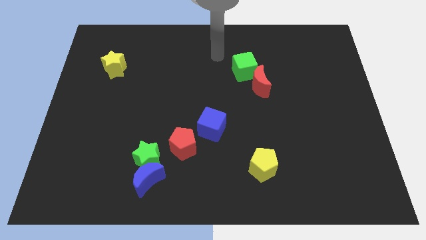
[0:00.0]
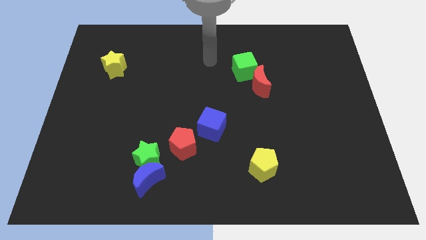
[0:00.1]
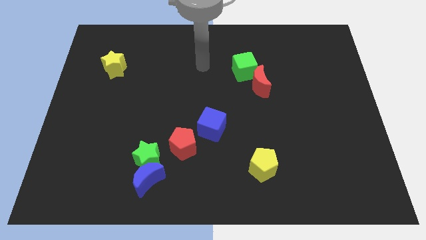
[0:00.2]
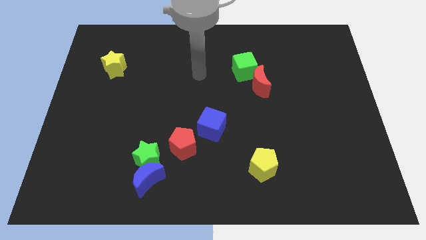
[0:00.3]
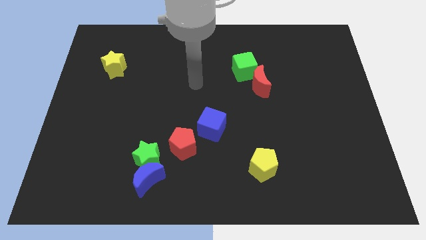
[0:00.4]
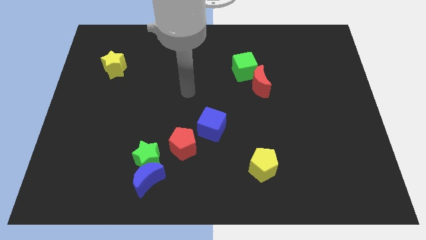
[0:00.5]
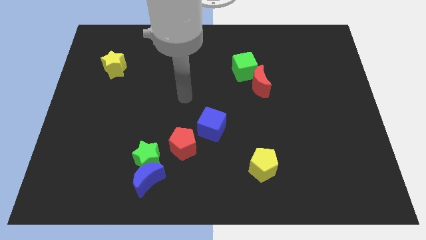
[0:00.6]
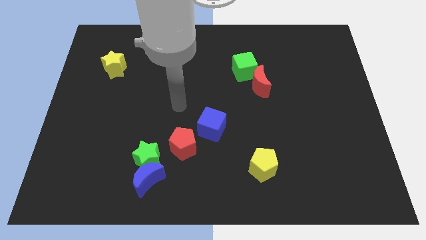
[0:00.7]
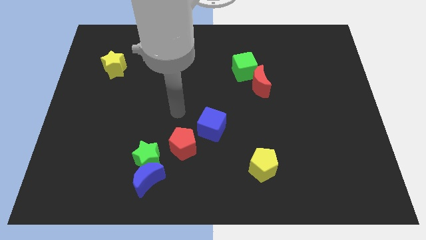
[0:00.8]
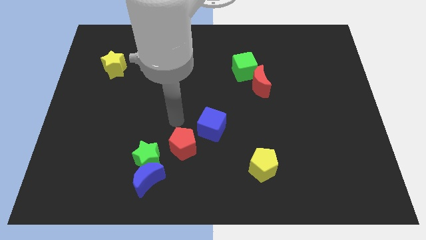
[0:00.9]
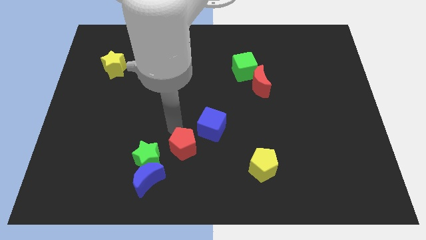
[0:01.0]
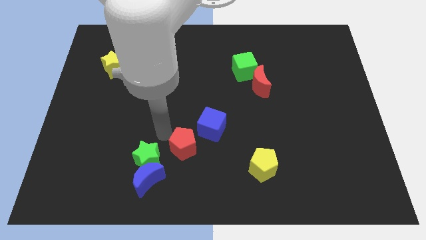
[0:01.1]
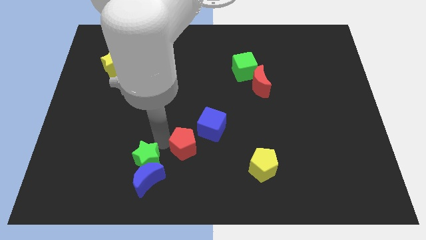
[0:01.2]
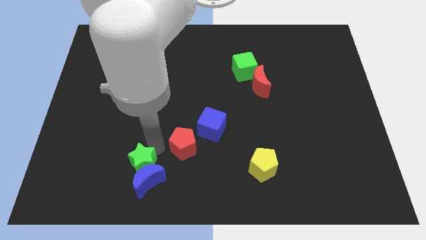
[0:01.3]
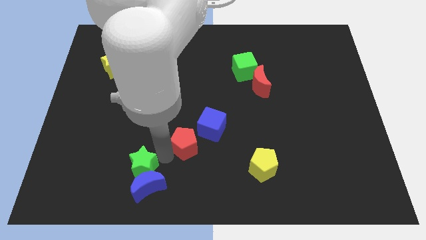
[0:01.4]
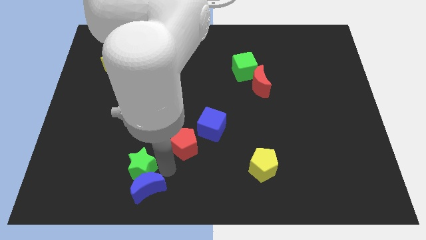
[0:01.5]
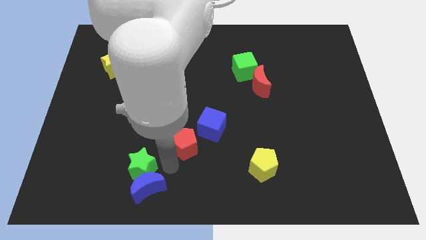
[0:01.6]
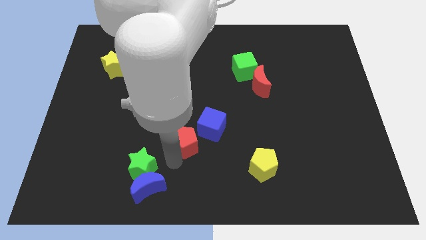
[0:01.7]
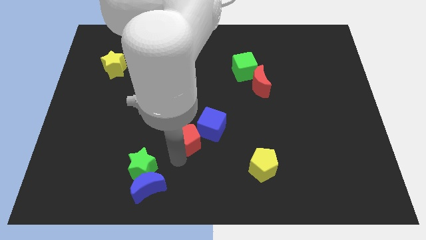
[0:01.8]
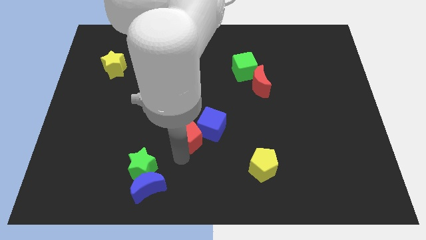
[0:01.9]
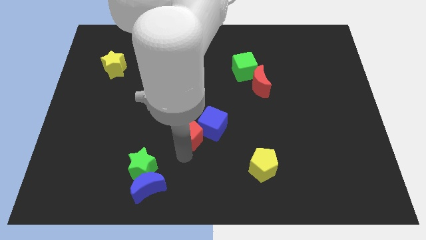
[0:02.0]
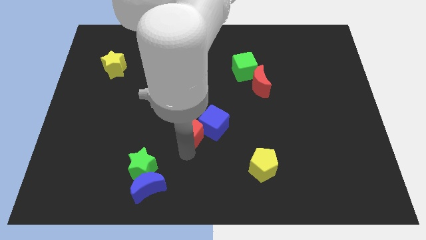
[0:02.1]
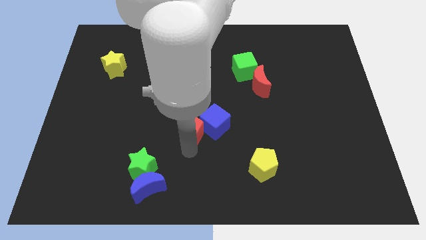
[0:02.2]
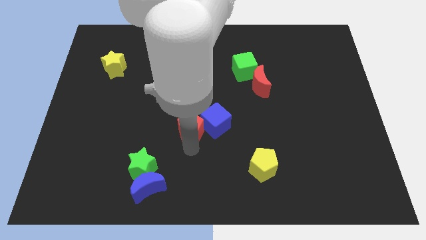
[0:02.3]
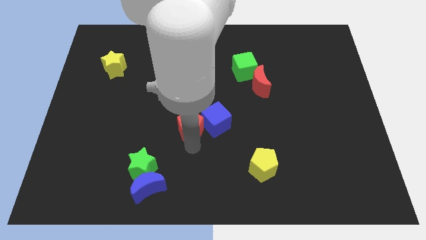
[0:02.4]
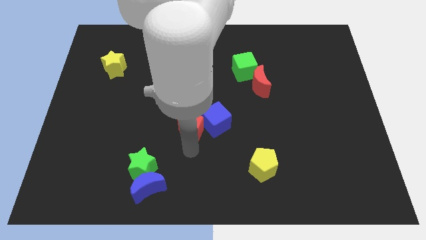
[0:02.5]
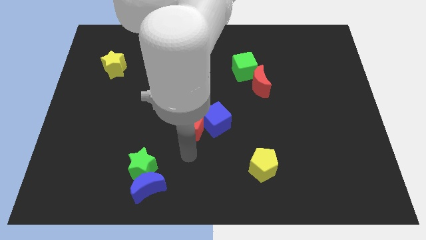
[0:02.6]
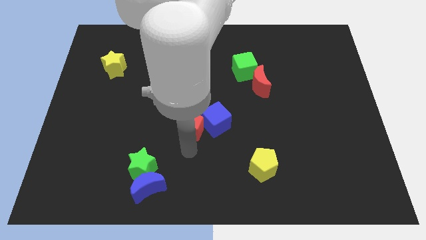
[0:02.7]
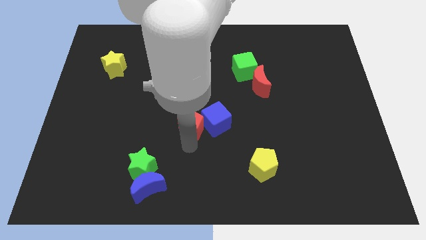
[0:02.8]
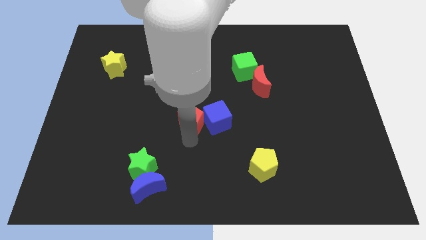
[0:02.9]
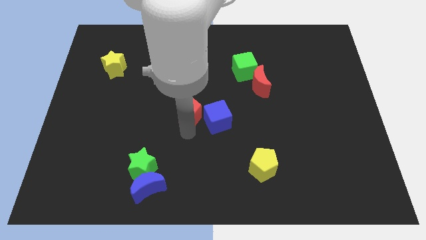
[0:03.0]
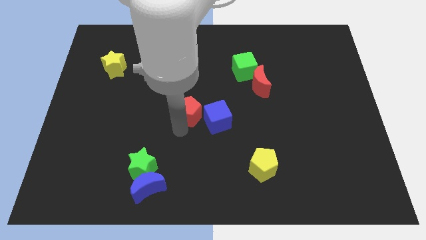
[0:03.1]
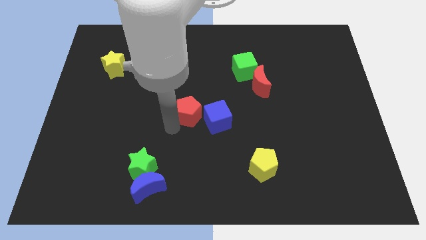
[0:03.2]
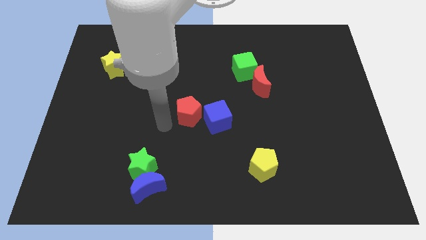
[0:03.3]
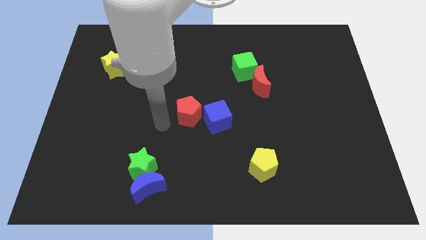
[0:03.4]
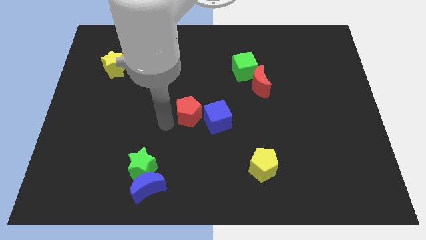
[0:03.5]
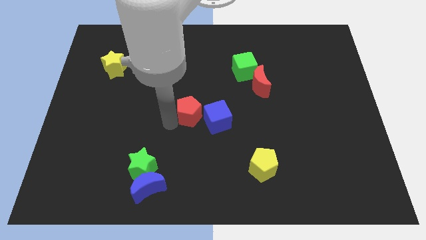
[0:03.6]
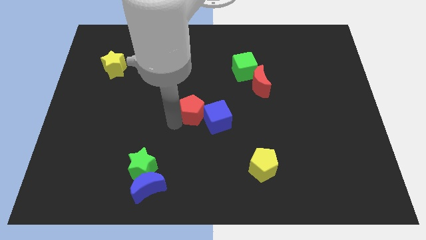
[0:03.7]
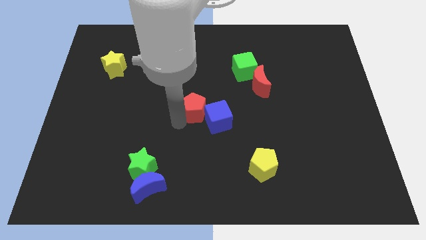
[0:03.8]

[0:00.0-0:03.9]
move the red pentagon somewhat diagonally up and to the right

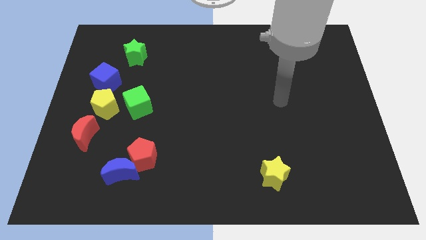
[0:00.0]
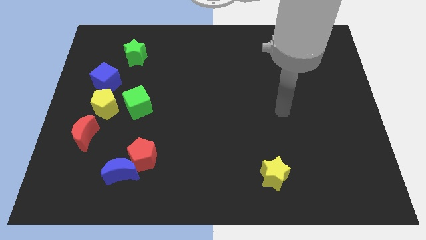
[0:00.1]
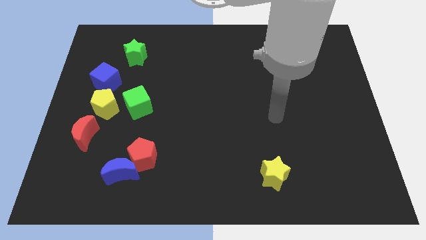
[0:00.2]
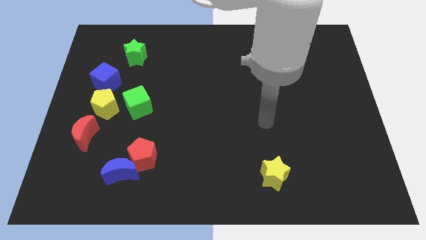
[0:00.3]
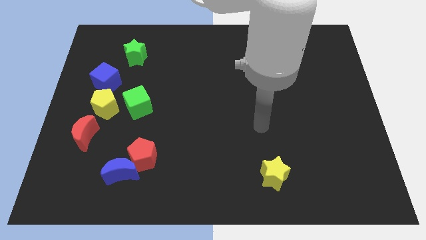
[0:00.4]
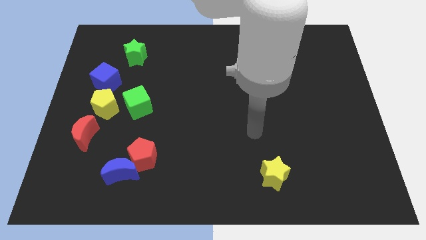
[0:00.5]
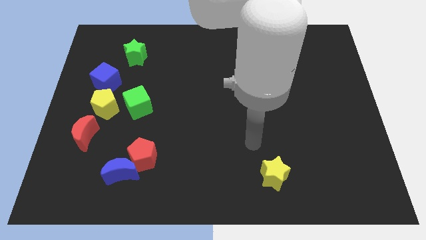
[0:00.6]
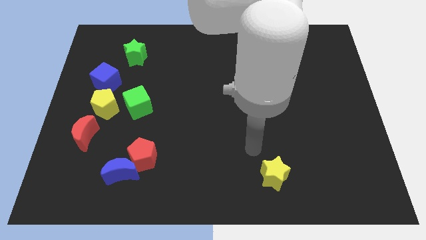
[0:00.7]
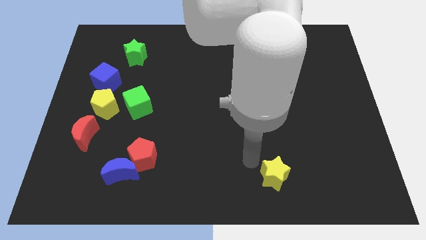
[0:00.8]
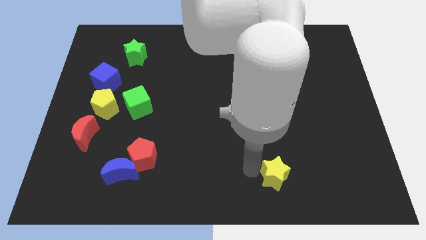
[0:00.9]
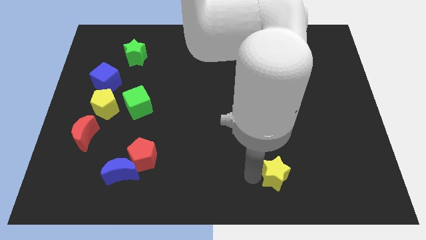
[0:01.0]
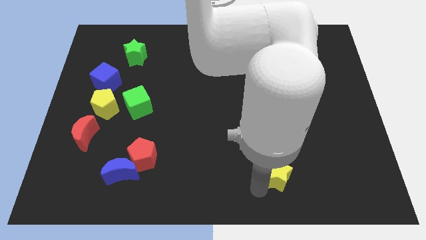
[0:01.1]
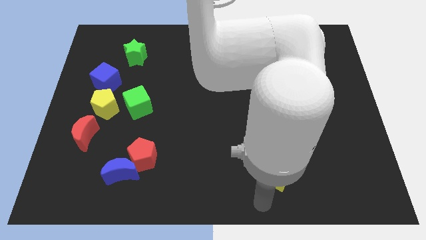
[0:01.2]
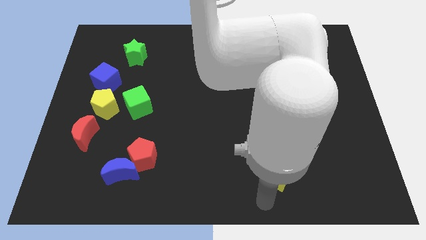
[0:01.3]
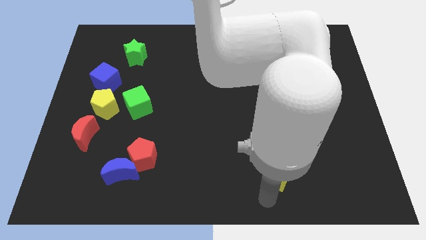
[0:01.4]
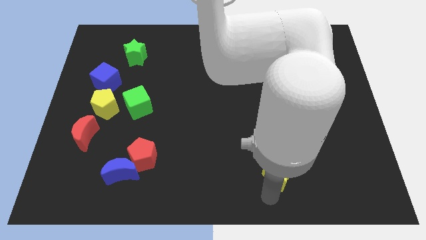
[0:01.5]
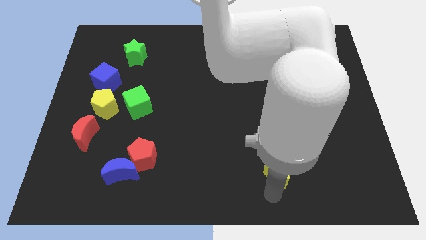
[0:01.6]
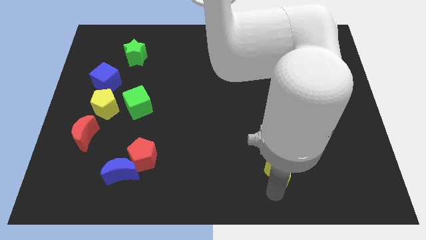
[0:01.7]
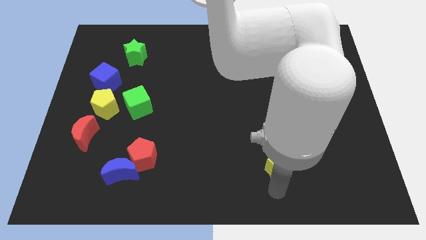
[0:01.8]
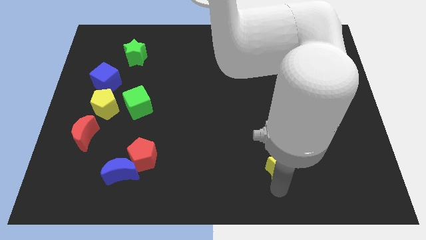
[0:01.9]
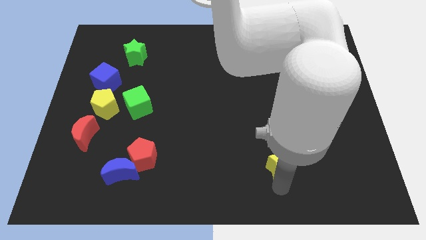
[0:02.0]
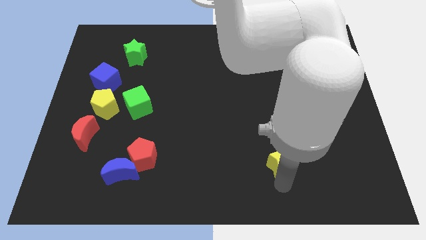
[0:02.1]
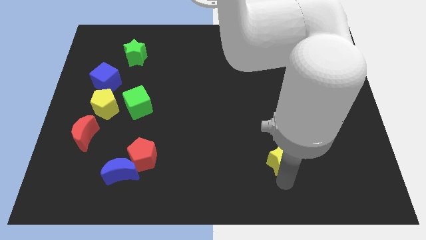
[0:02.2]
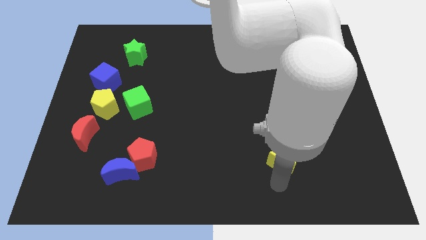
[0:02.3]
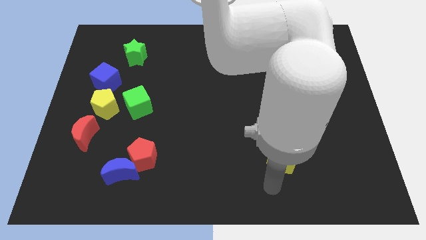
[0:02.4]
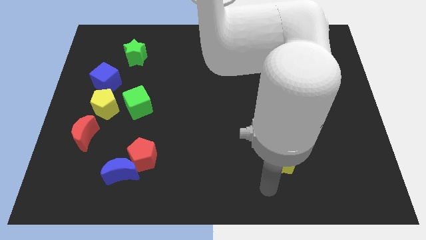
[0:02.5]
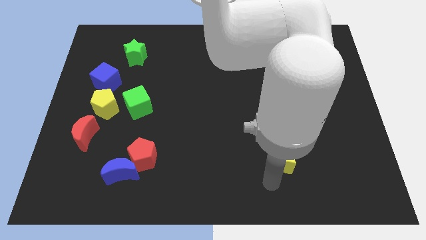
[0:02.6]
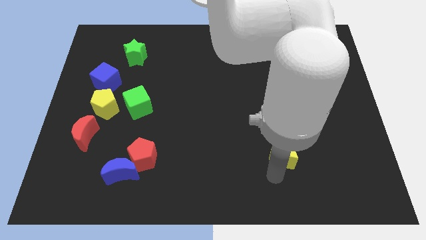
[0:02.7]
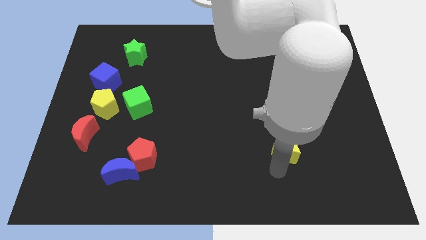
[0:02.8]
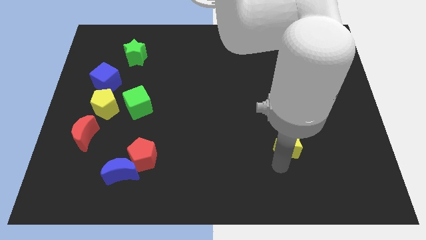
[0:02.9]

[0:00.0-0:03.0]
push the yellow star upwards and to the right slightly

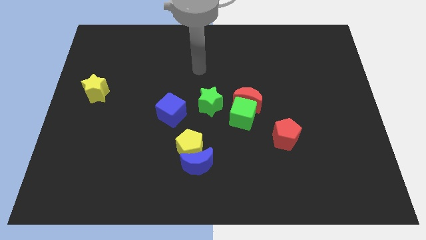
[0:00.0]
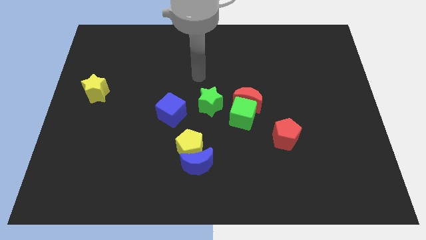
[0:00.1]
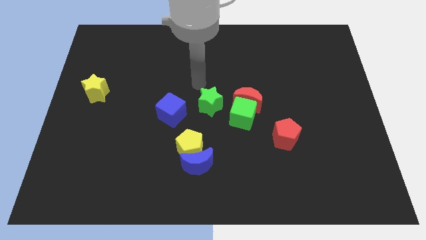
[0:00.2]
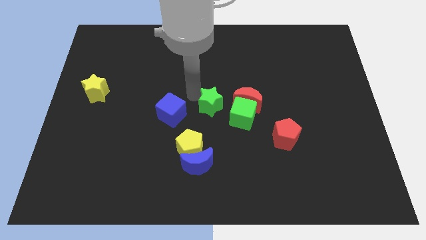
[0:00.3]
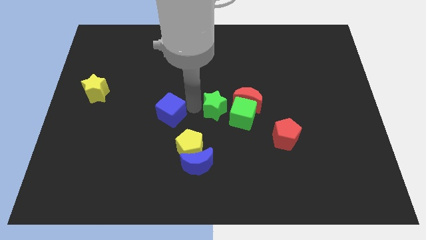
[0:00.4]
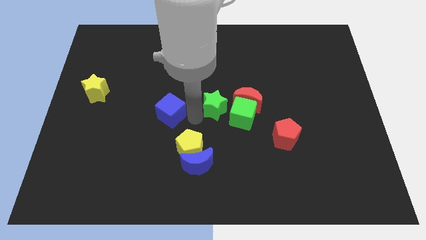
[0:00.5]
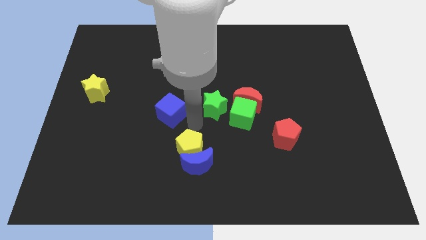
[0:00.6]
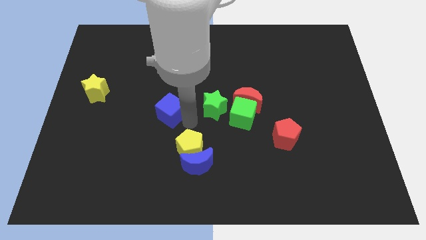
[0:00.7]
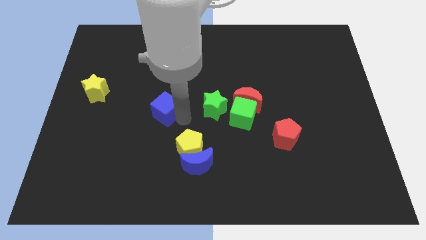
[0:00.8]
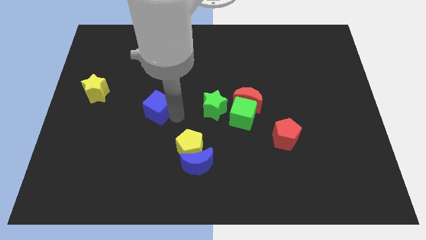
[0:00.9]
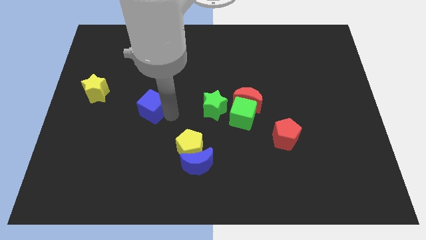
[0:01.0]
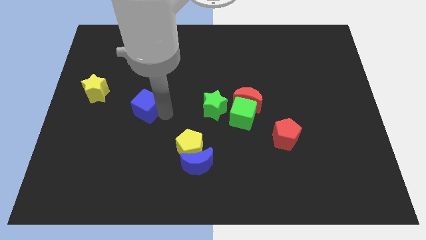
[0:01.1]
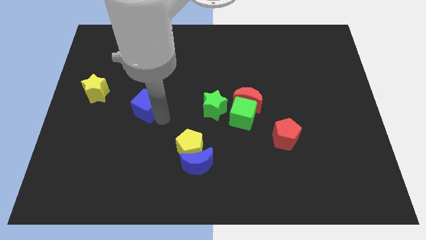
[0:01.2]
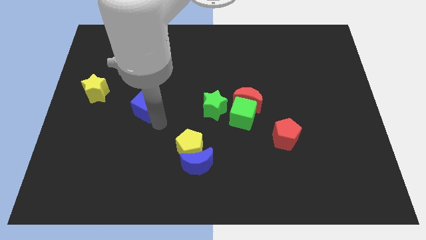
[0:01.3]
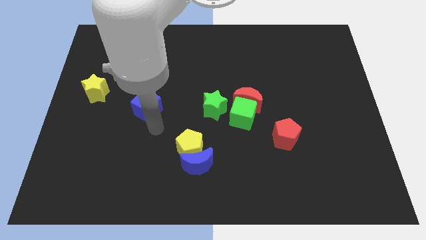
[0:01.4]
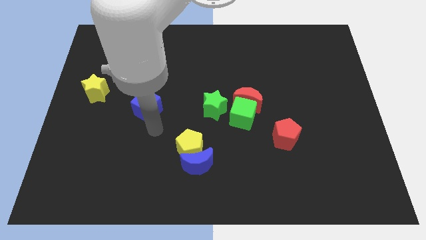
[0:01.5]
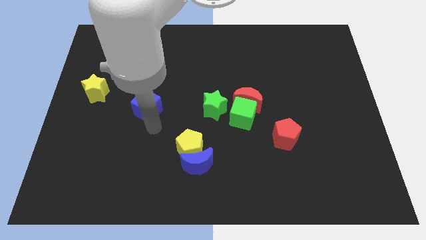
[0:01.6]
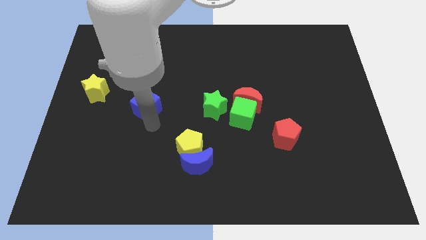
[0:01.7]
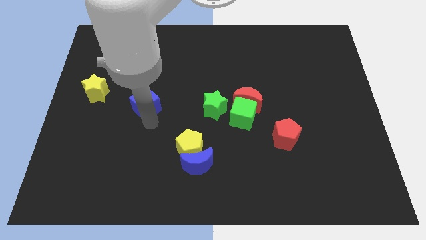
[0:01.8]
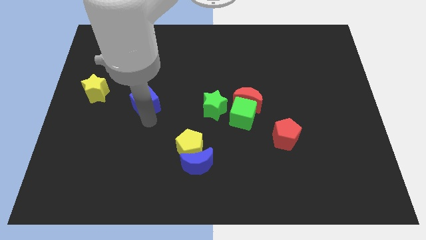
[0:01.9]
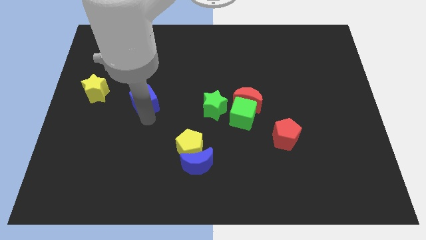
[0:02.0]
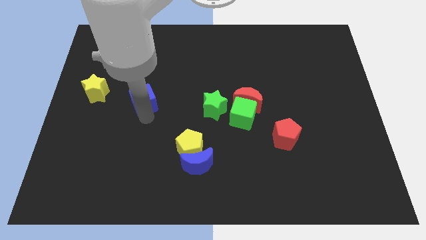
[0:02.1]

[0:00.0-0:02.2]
slightly move the blue cube upwards and left diagonally
